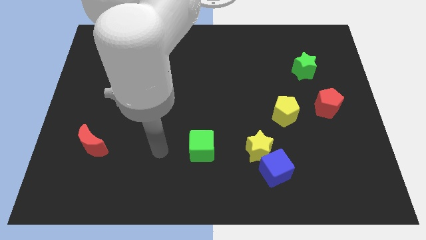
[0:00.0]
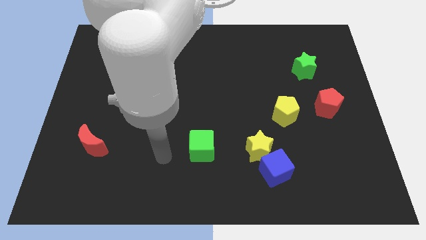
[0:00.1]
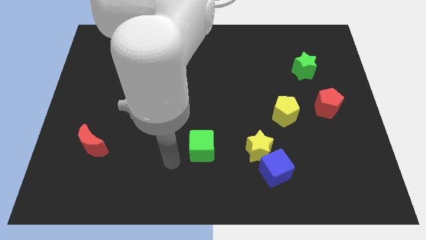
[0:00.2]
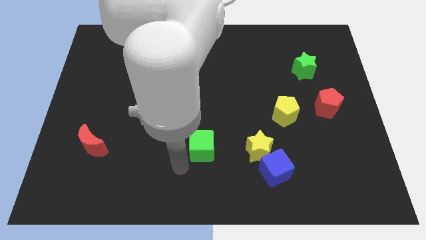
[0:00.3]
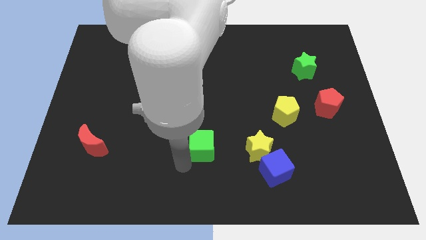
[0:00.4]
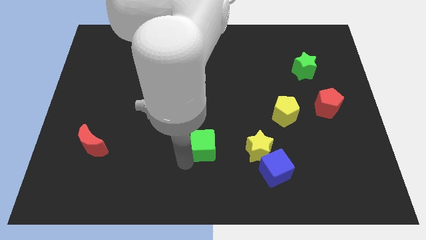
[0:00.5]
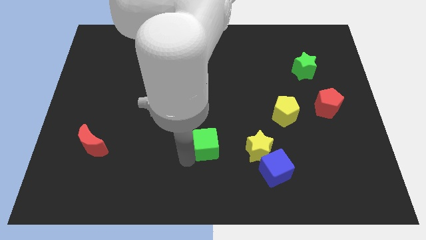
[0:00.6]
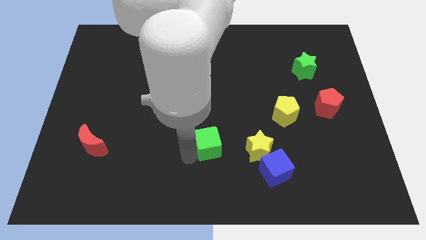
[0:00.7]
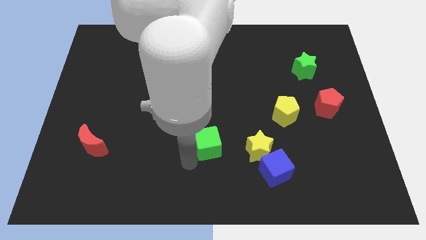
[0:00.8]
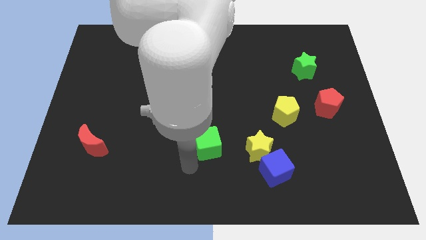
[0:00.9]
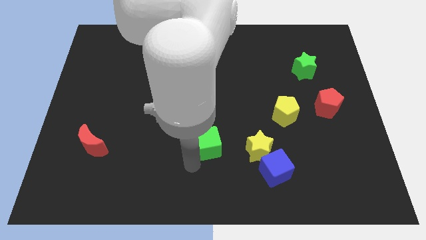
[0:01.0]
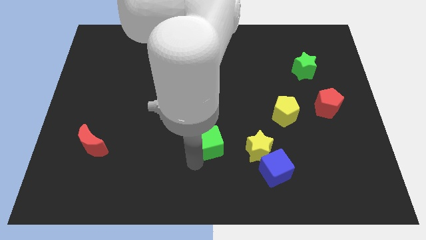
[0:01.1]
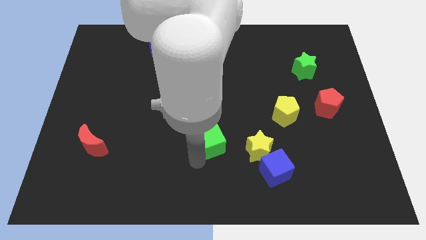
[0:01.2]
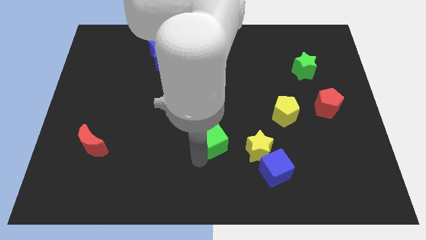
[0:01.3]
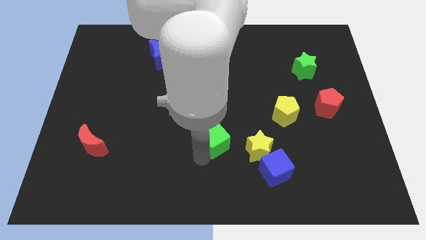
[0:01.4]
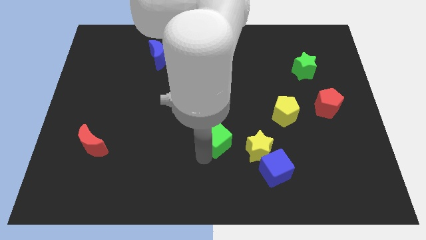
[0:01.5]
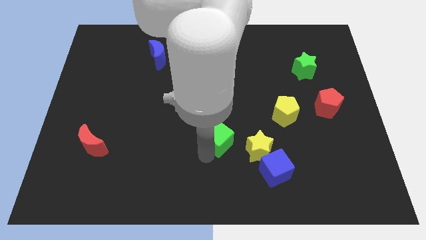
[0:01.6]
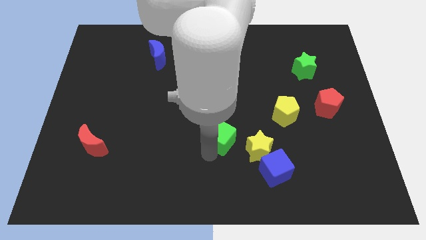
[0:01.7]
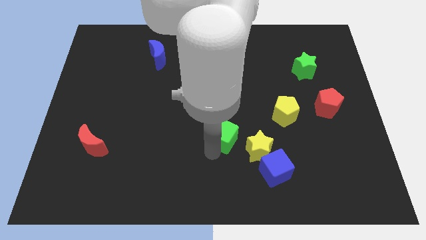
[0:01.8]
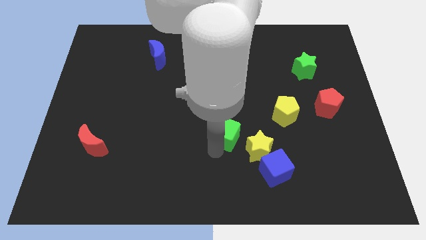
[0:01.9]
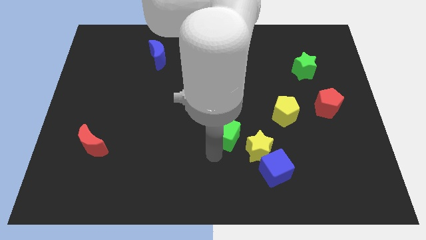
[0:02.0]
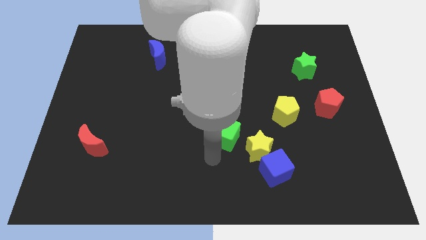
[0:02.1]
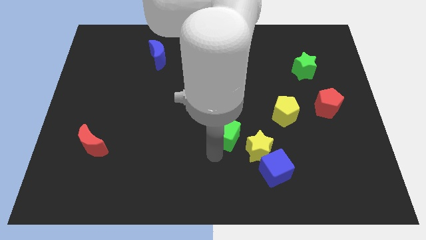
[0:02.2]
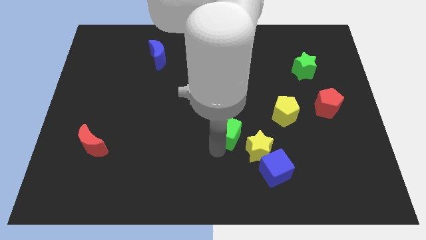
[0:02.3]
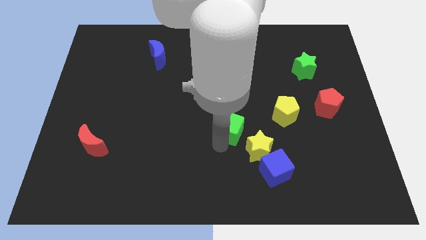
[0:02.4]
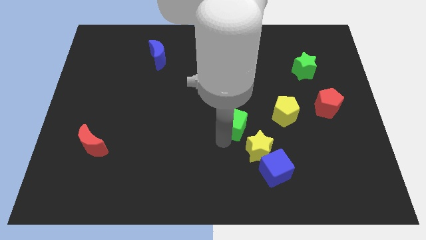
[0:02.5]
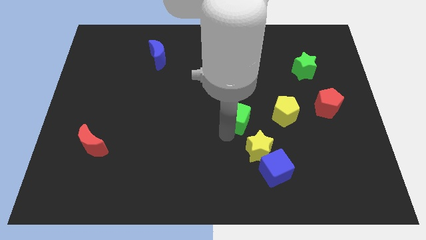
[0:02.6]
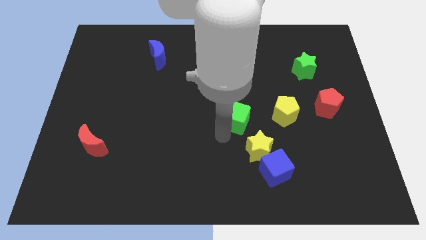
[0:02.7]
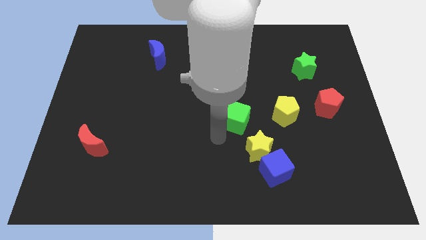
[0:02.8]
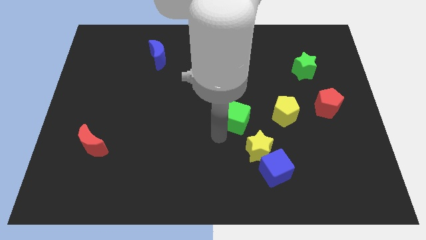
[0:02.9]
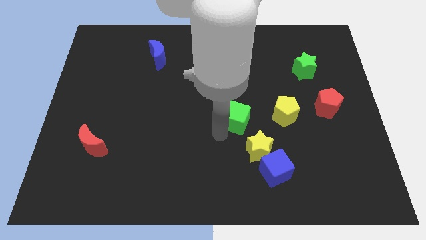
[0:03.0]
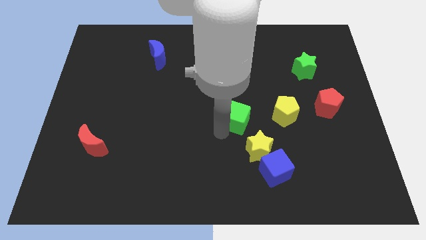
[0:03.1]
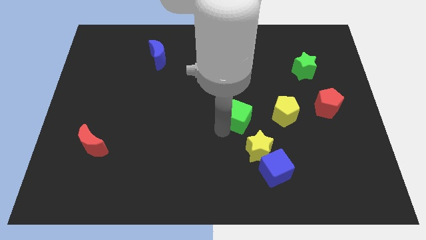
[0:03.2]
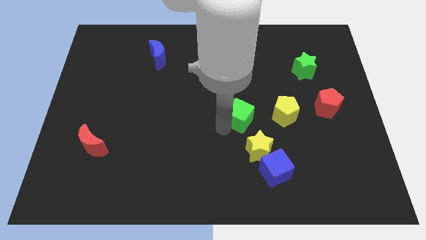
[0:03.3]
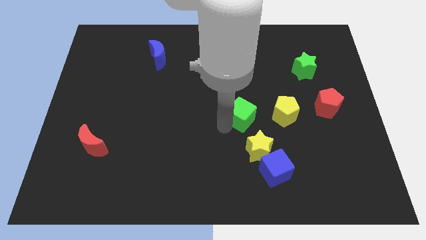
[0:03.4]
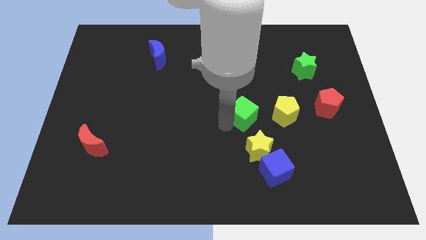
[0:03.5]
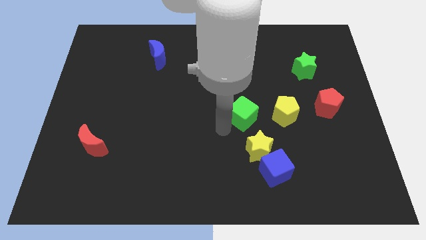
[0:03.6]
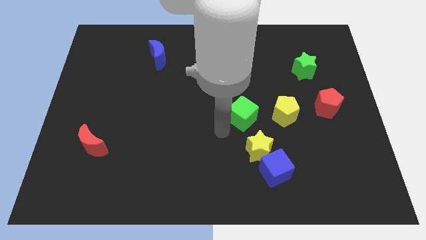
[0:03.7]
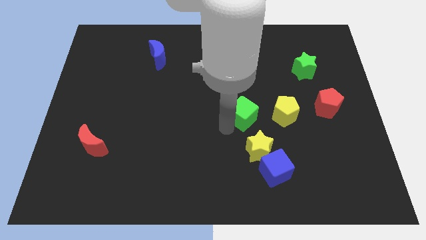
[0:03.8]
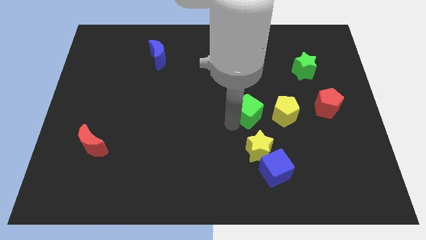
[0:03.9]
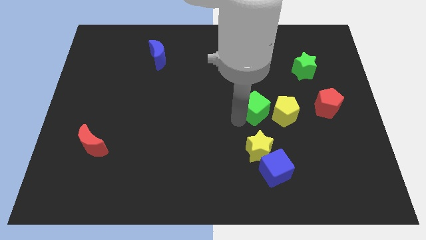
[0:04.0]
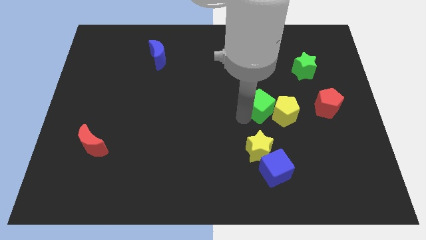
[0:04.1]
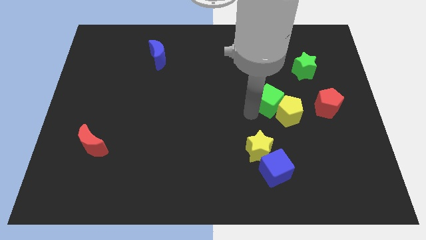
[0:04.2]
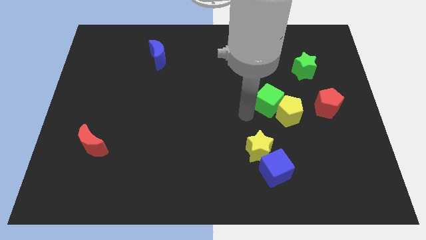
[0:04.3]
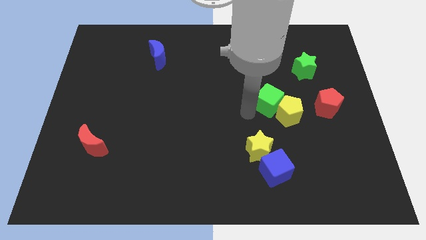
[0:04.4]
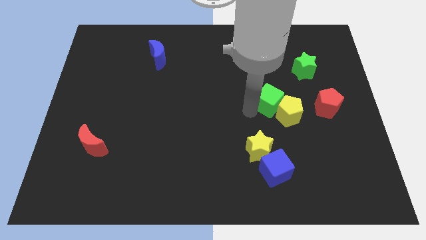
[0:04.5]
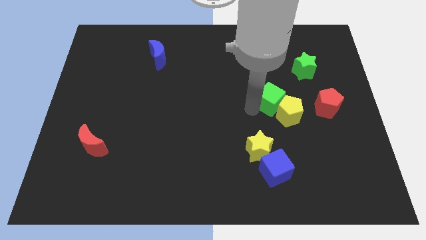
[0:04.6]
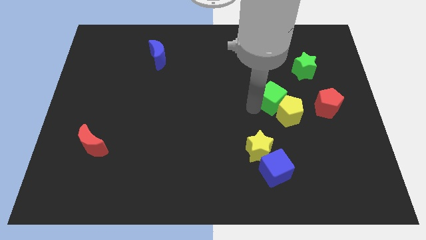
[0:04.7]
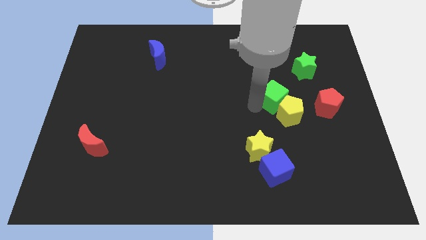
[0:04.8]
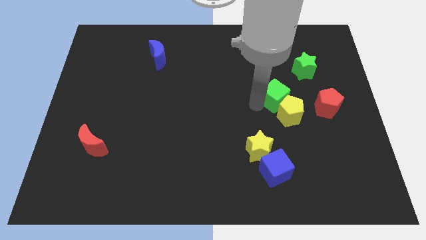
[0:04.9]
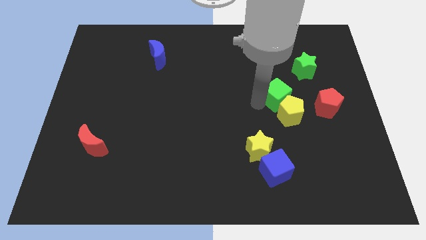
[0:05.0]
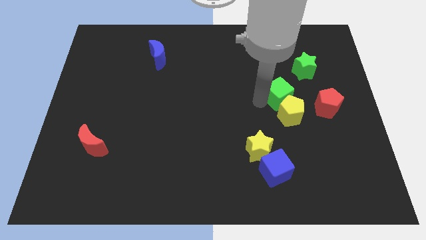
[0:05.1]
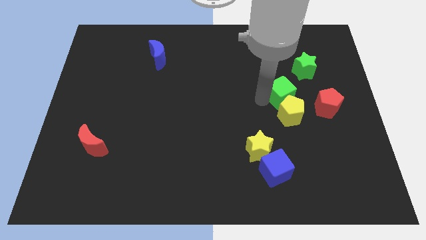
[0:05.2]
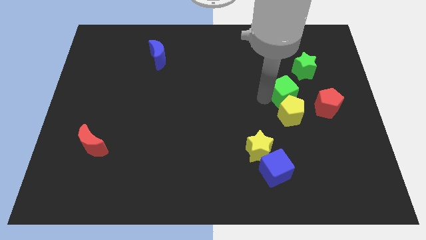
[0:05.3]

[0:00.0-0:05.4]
slide the green cube to the top left of the red pentagon

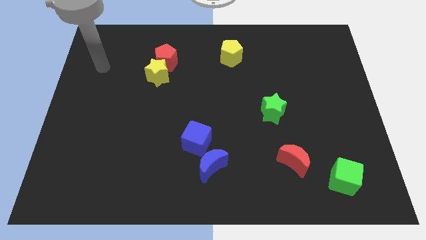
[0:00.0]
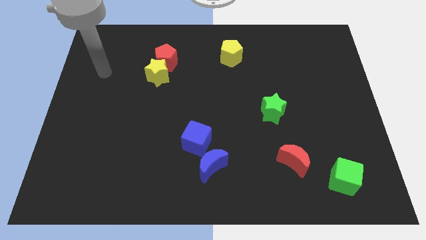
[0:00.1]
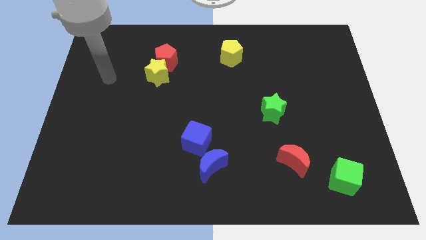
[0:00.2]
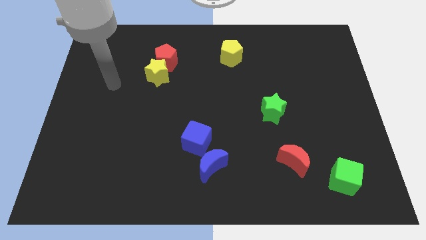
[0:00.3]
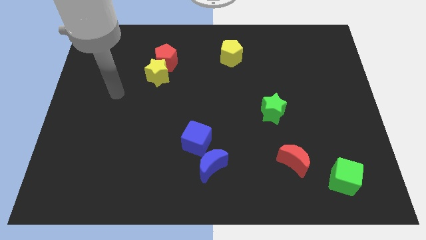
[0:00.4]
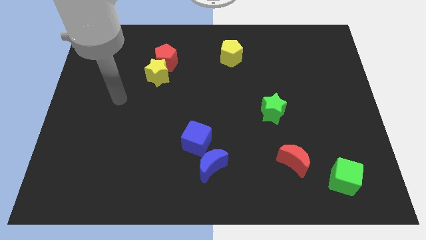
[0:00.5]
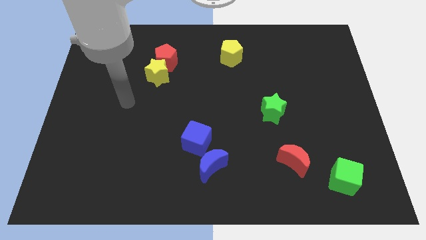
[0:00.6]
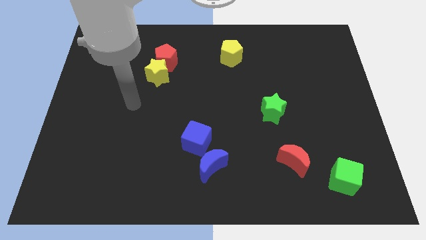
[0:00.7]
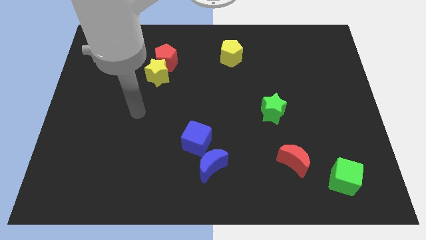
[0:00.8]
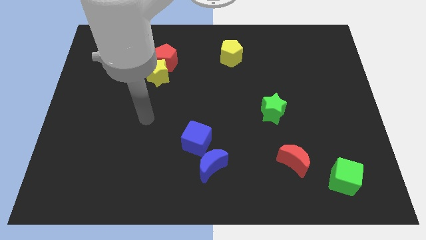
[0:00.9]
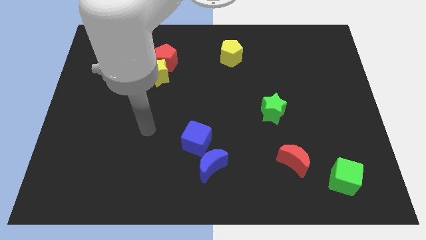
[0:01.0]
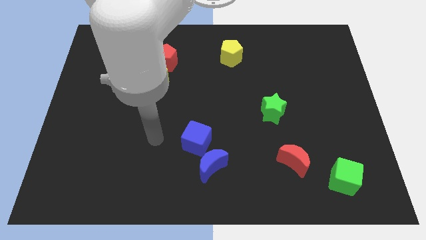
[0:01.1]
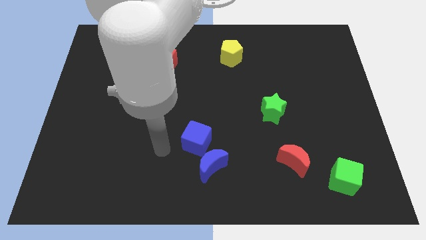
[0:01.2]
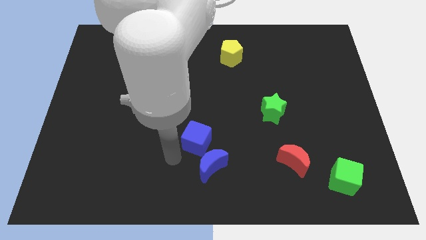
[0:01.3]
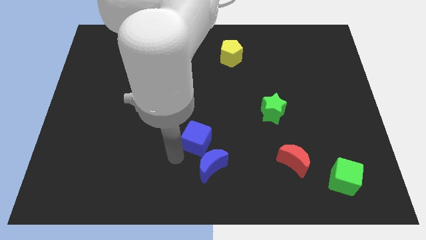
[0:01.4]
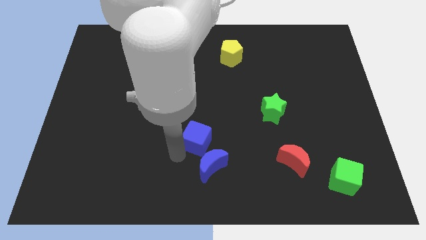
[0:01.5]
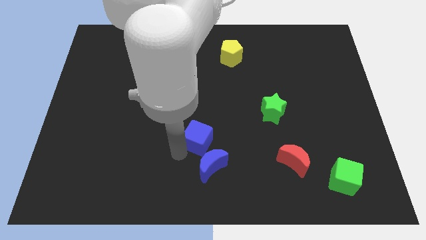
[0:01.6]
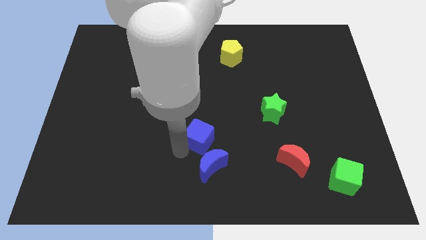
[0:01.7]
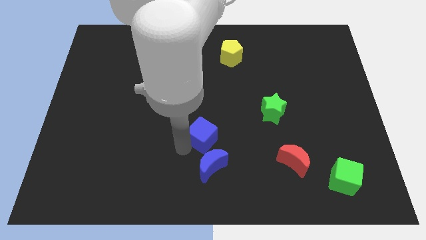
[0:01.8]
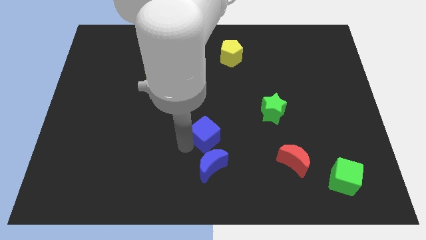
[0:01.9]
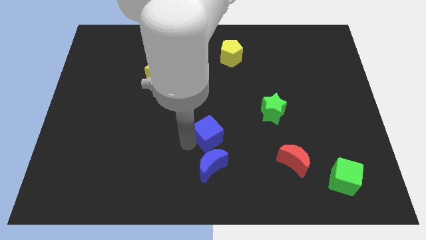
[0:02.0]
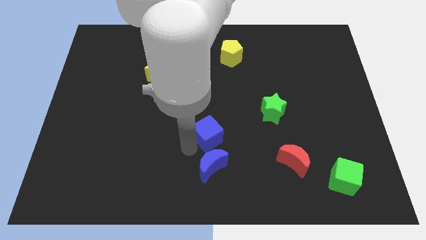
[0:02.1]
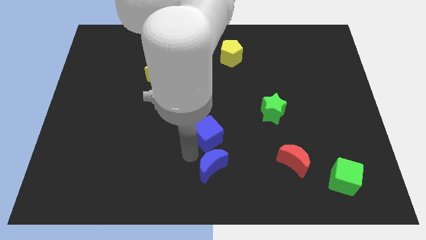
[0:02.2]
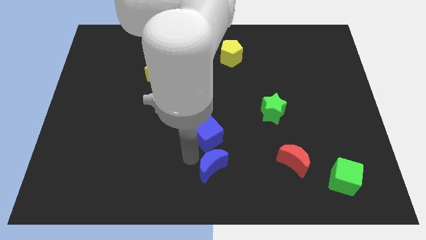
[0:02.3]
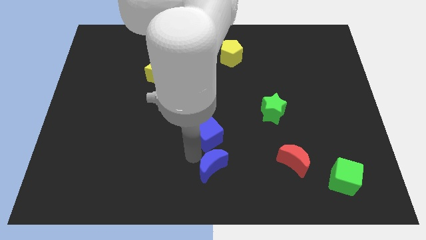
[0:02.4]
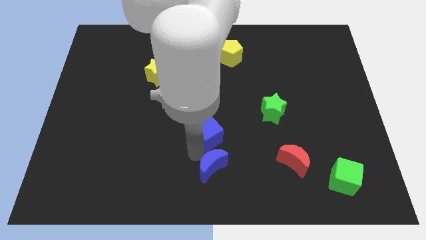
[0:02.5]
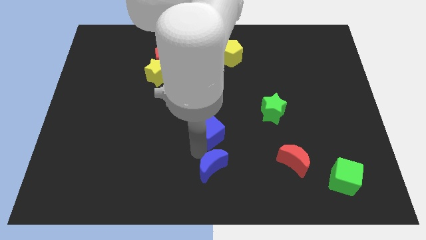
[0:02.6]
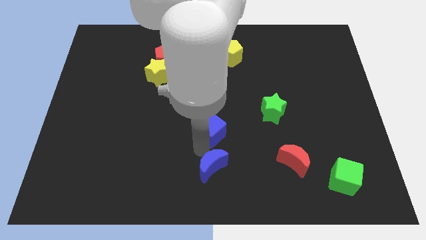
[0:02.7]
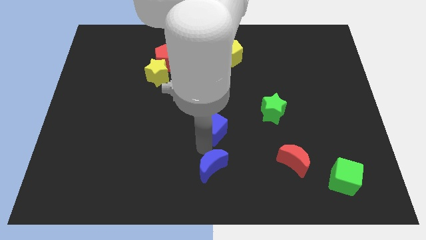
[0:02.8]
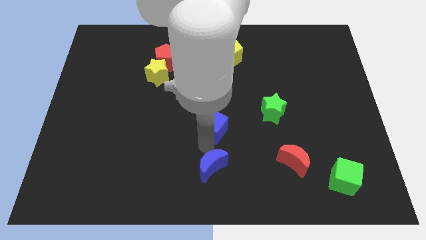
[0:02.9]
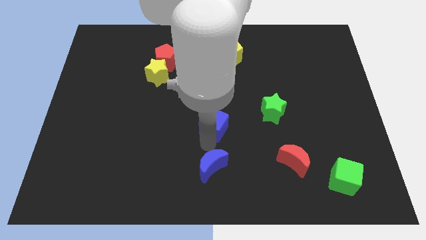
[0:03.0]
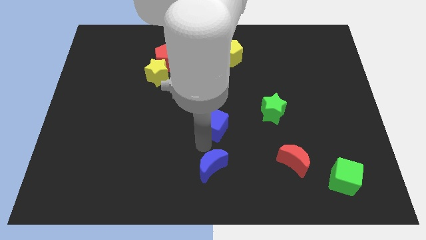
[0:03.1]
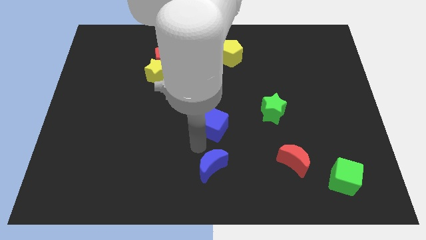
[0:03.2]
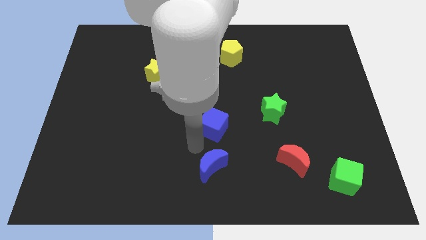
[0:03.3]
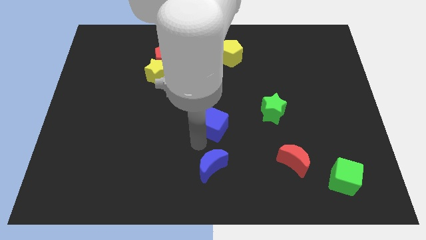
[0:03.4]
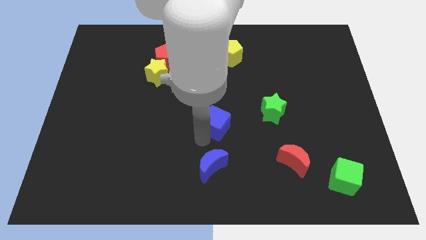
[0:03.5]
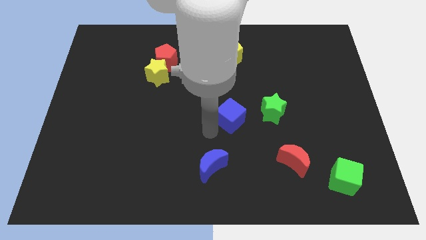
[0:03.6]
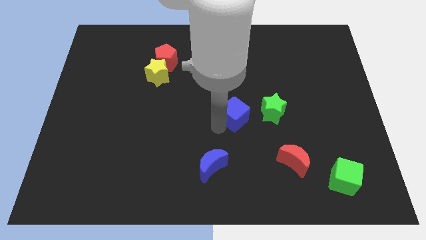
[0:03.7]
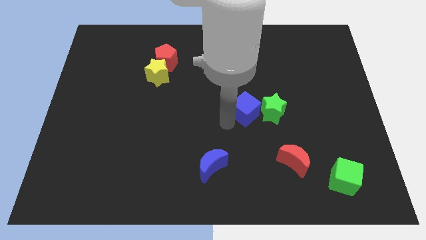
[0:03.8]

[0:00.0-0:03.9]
move the blue cube to the top left side of the green star
